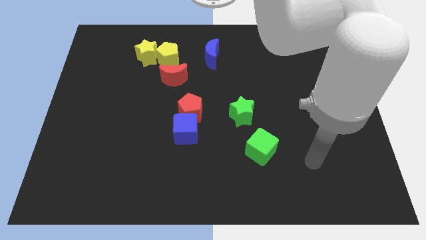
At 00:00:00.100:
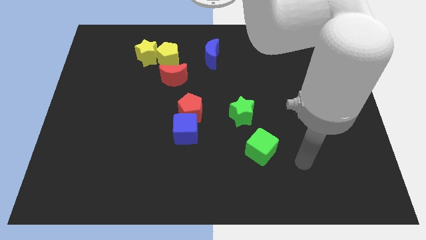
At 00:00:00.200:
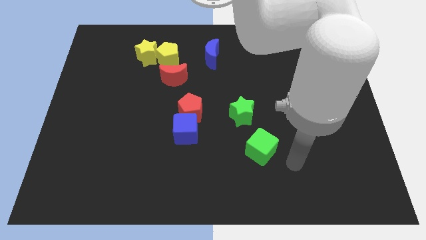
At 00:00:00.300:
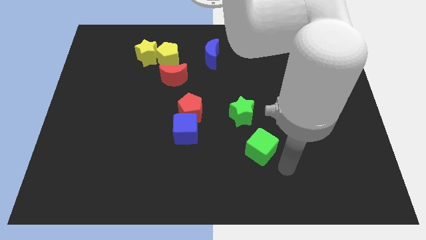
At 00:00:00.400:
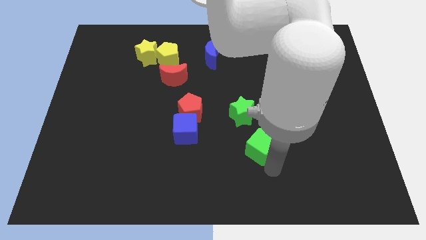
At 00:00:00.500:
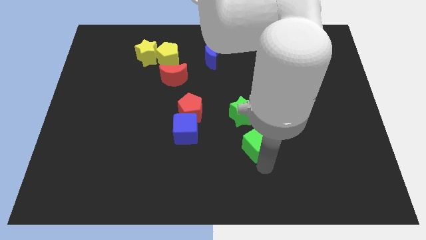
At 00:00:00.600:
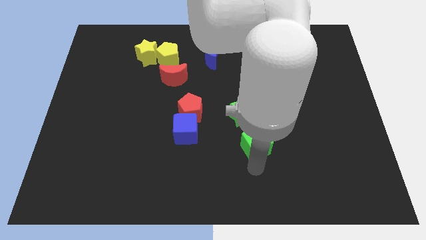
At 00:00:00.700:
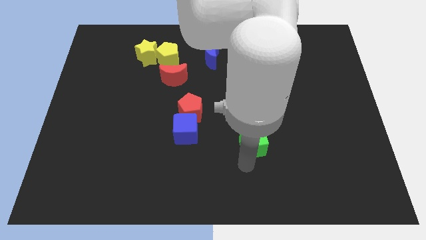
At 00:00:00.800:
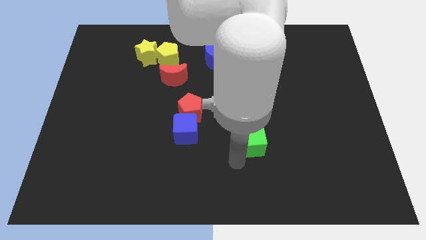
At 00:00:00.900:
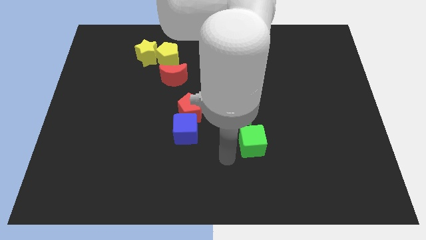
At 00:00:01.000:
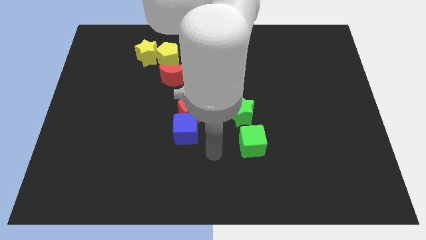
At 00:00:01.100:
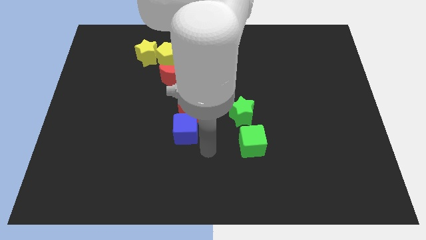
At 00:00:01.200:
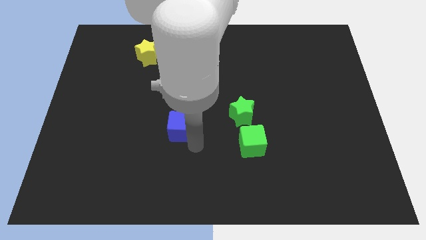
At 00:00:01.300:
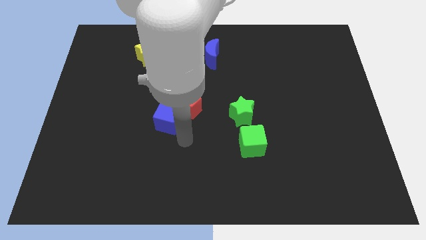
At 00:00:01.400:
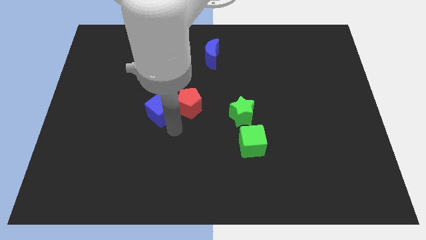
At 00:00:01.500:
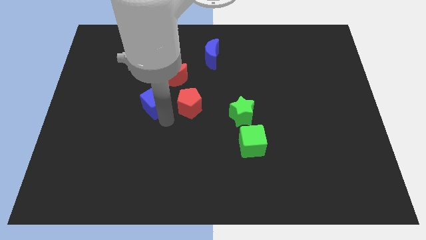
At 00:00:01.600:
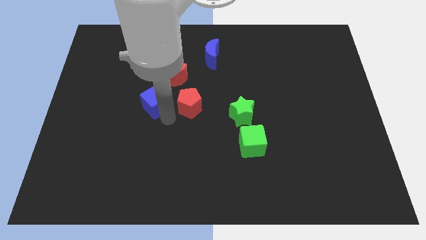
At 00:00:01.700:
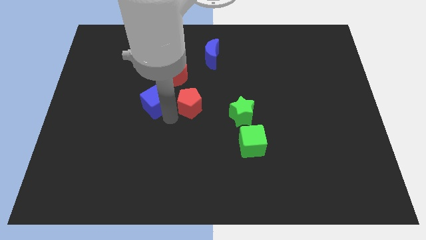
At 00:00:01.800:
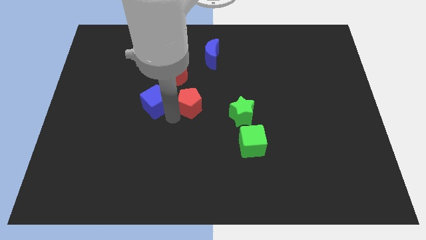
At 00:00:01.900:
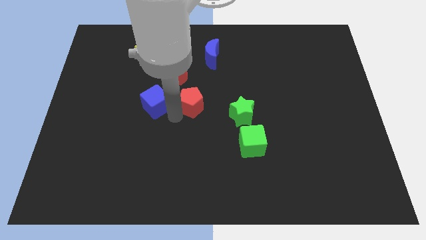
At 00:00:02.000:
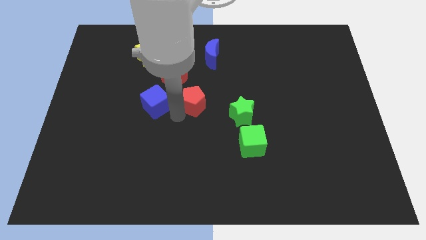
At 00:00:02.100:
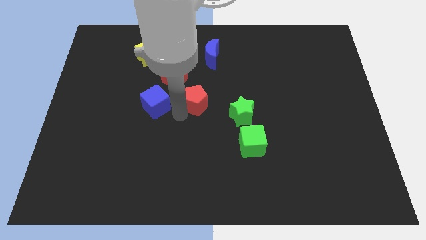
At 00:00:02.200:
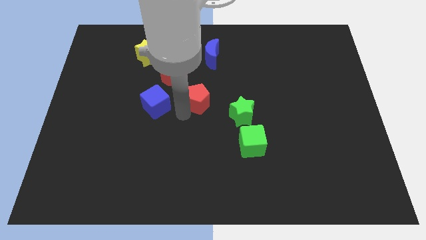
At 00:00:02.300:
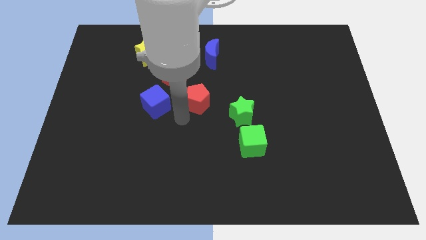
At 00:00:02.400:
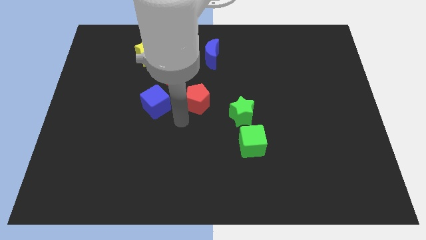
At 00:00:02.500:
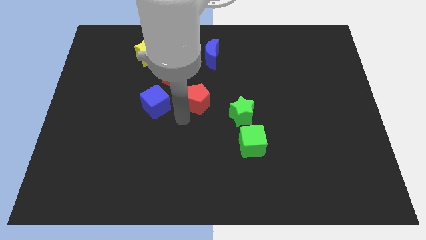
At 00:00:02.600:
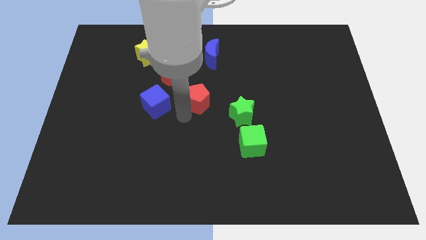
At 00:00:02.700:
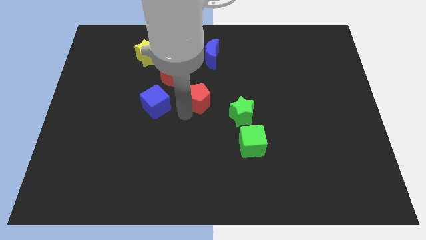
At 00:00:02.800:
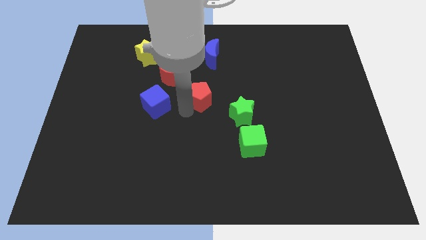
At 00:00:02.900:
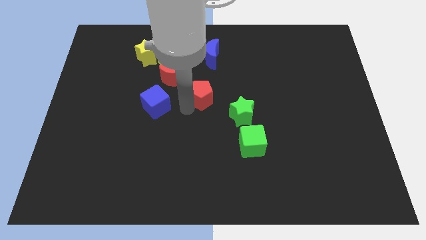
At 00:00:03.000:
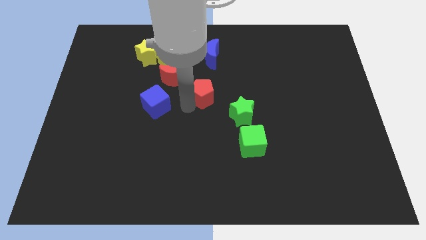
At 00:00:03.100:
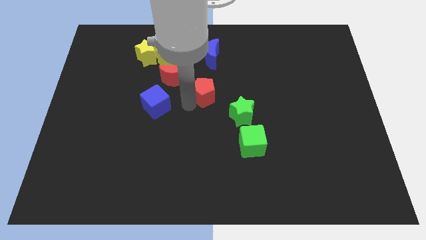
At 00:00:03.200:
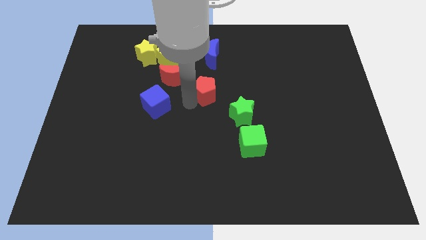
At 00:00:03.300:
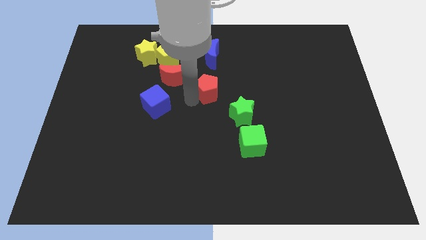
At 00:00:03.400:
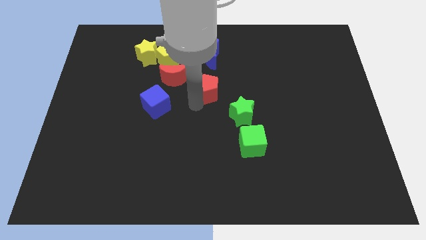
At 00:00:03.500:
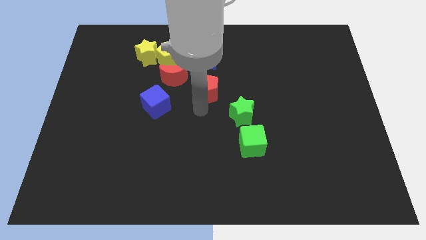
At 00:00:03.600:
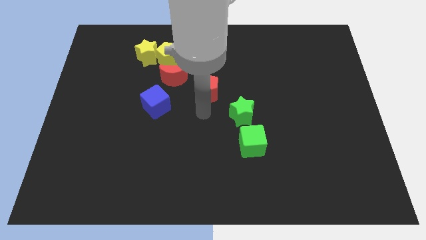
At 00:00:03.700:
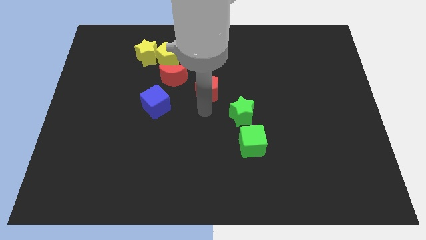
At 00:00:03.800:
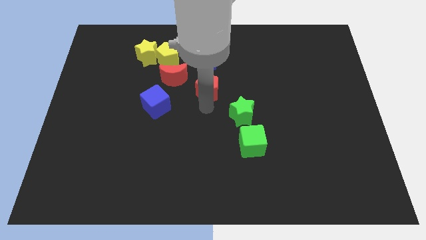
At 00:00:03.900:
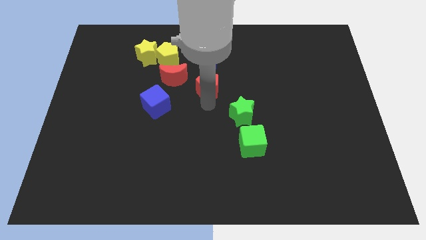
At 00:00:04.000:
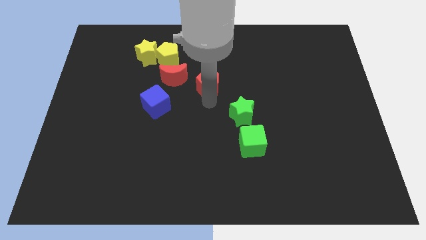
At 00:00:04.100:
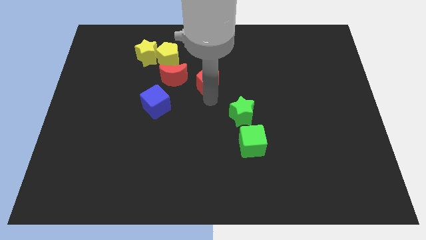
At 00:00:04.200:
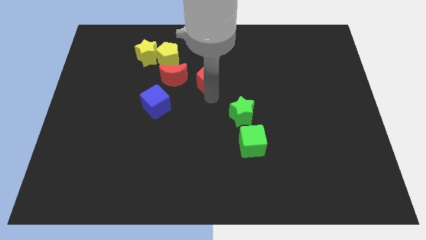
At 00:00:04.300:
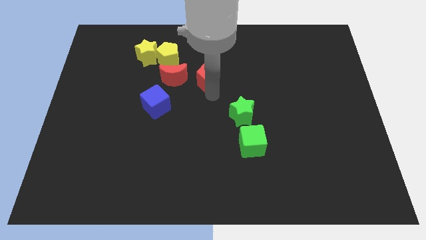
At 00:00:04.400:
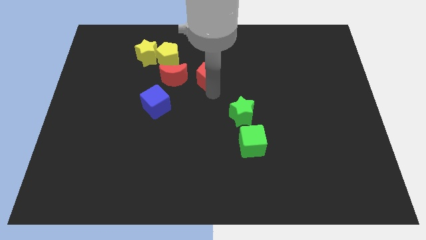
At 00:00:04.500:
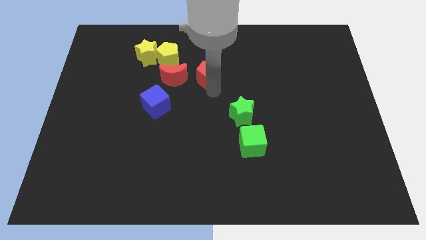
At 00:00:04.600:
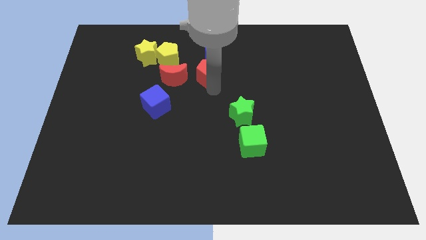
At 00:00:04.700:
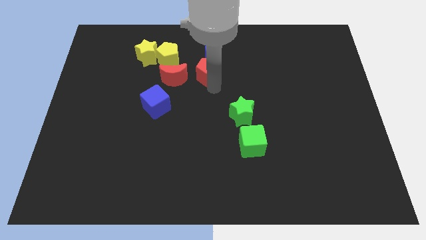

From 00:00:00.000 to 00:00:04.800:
slide the red pentagon towards the blue moon

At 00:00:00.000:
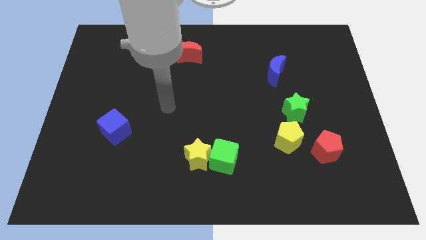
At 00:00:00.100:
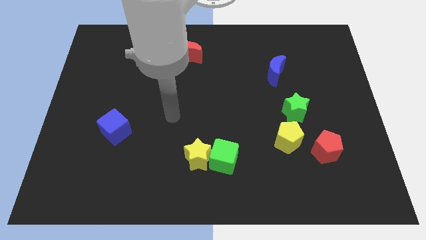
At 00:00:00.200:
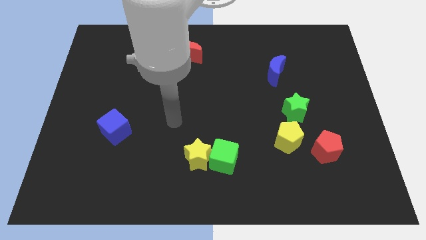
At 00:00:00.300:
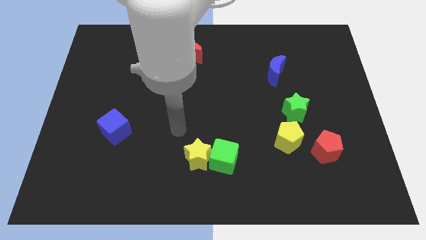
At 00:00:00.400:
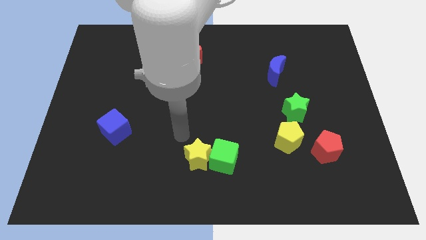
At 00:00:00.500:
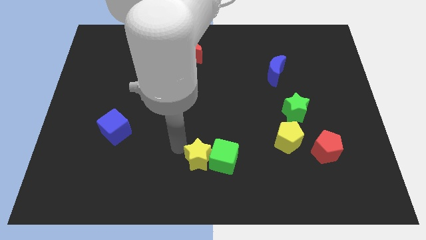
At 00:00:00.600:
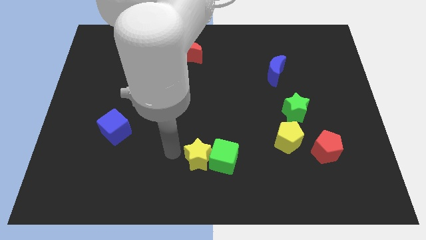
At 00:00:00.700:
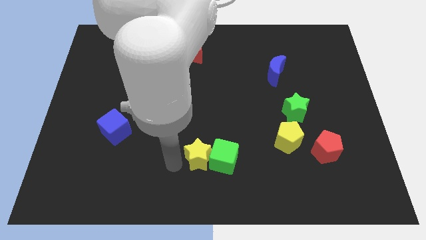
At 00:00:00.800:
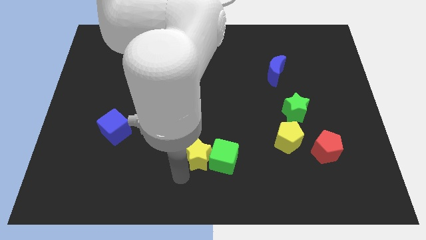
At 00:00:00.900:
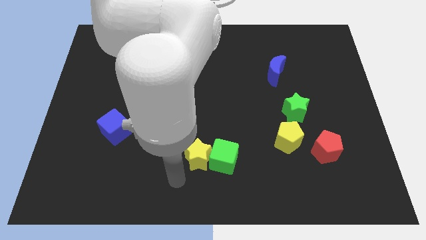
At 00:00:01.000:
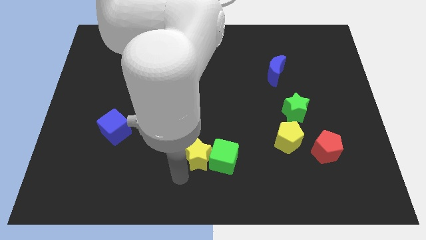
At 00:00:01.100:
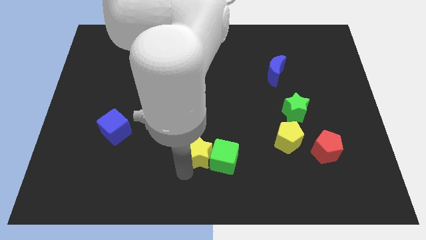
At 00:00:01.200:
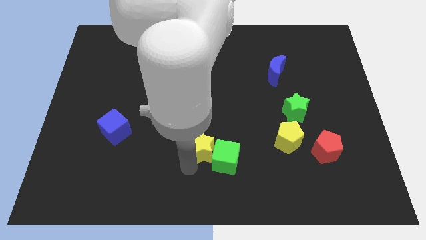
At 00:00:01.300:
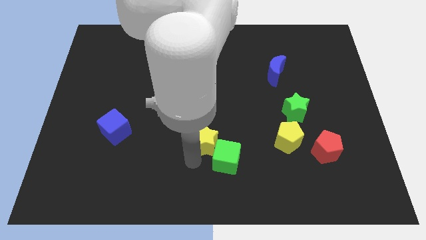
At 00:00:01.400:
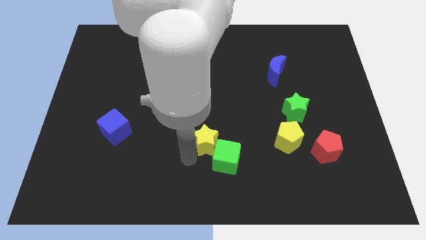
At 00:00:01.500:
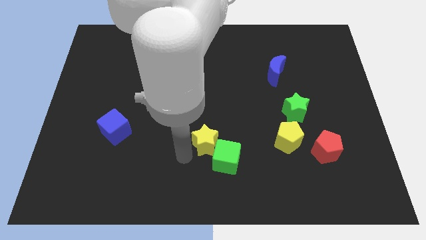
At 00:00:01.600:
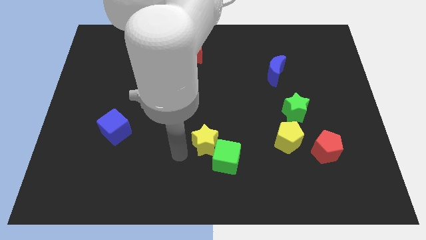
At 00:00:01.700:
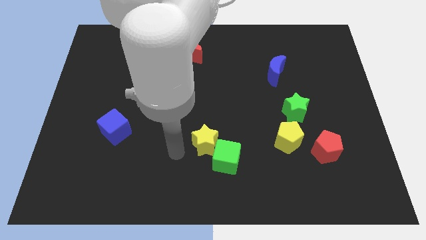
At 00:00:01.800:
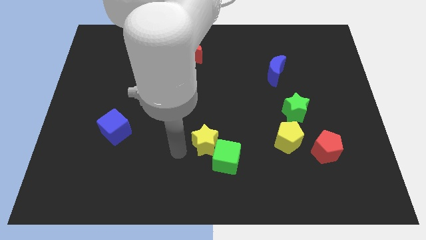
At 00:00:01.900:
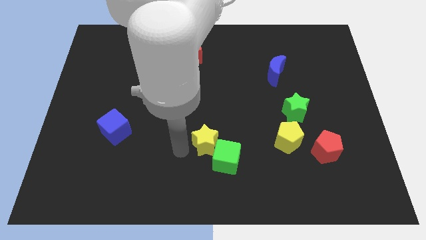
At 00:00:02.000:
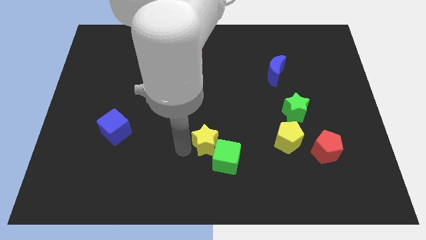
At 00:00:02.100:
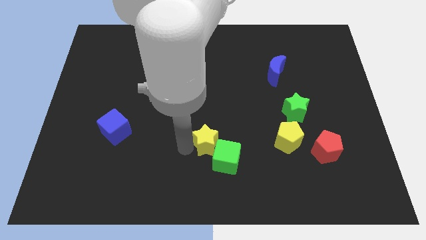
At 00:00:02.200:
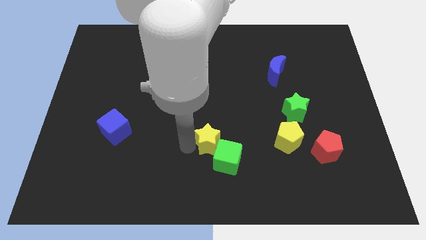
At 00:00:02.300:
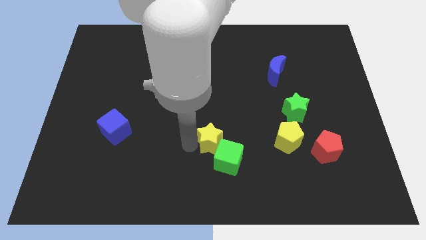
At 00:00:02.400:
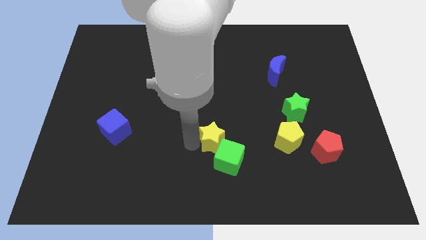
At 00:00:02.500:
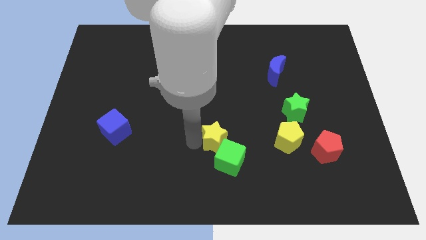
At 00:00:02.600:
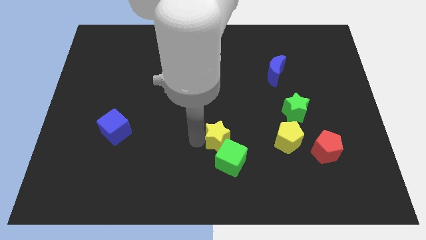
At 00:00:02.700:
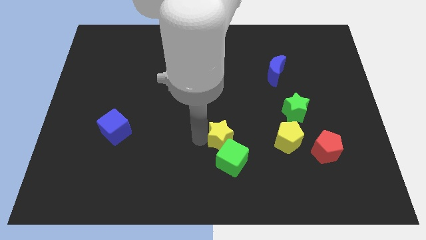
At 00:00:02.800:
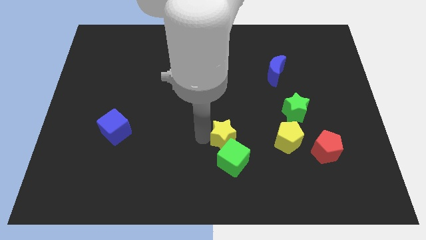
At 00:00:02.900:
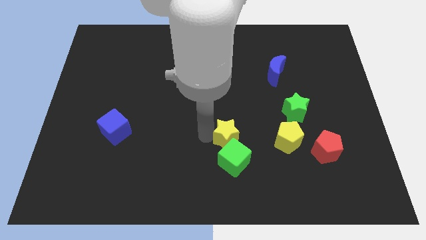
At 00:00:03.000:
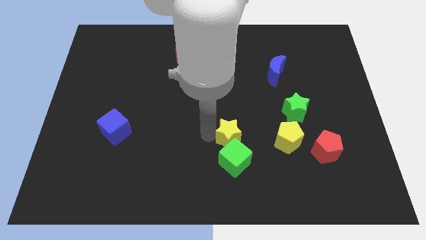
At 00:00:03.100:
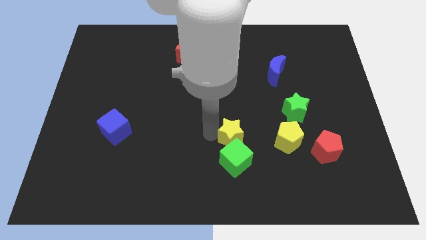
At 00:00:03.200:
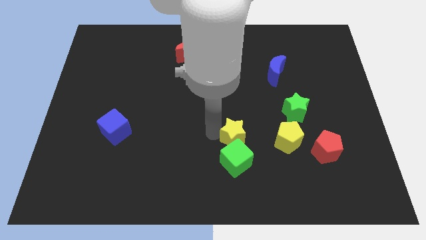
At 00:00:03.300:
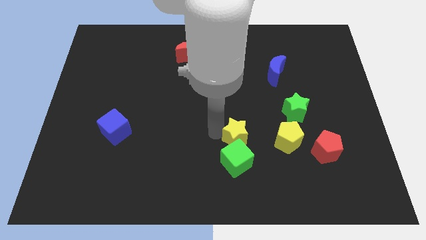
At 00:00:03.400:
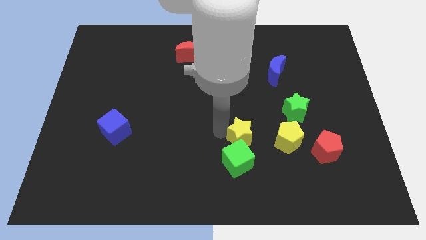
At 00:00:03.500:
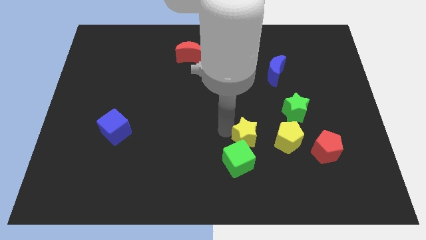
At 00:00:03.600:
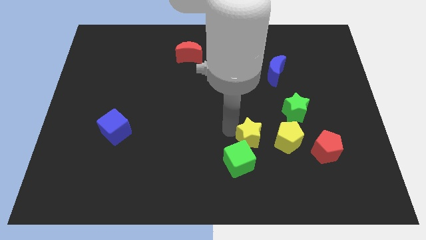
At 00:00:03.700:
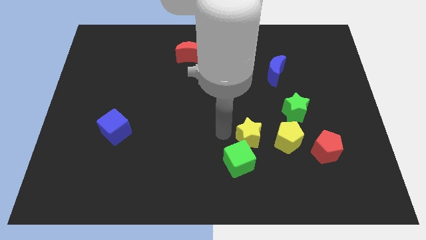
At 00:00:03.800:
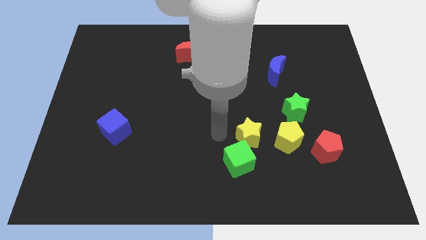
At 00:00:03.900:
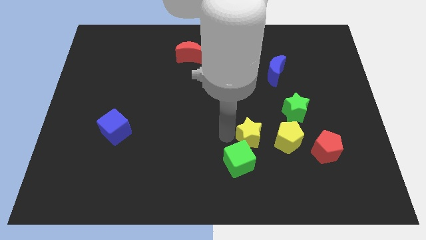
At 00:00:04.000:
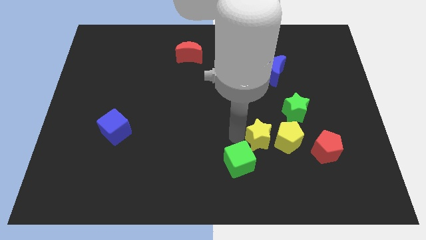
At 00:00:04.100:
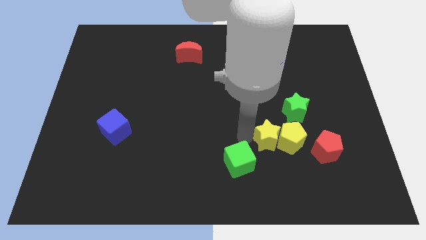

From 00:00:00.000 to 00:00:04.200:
slide the yellow star towards the yellow pentagon
